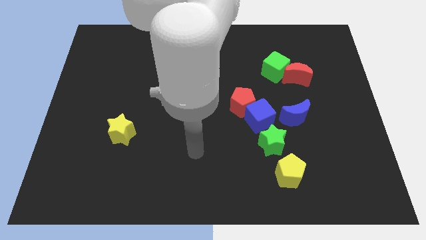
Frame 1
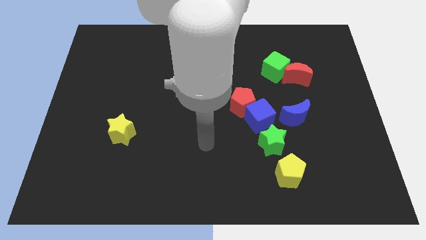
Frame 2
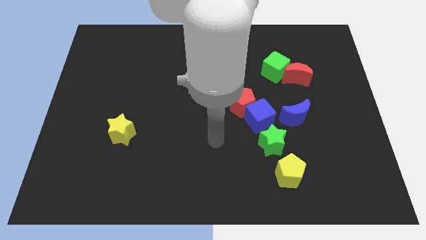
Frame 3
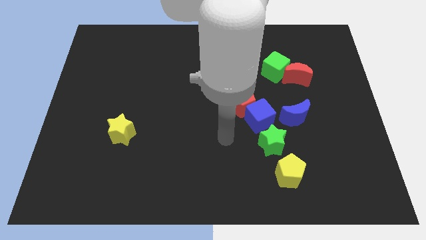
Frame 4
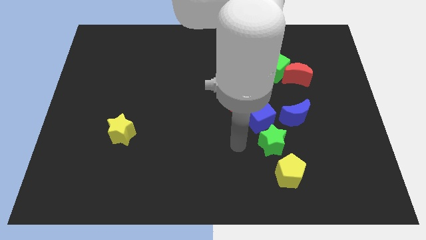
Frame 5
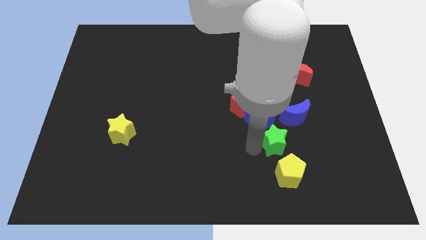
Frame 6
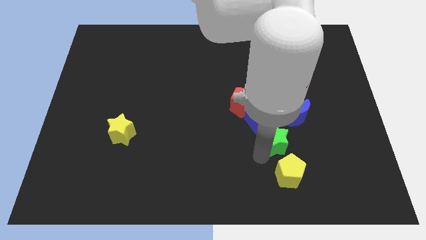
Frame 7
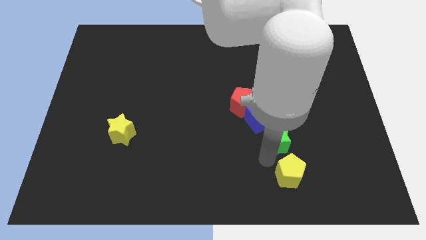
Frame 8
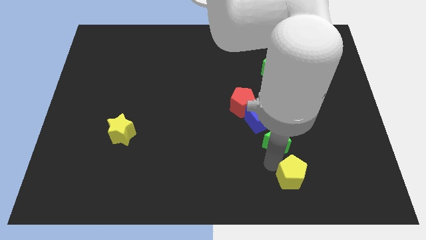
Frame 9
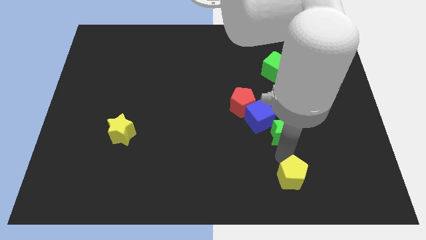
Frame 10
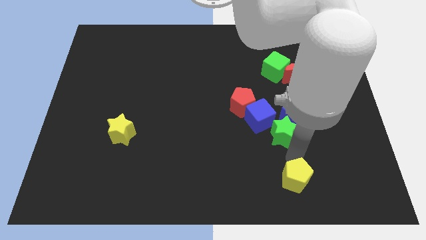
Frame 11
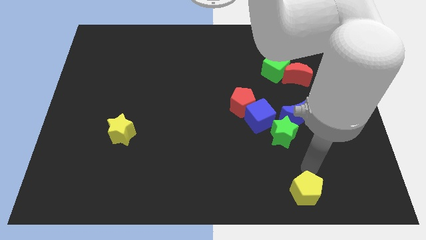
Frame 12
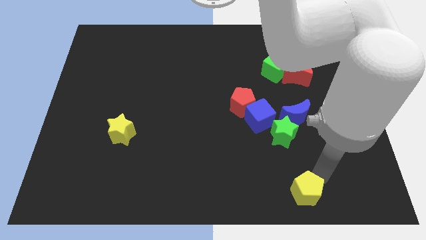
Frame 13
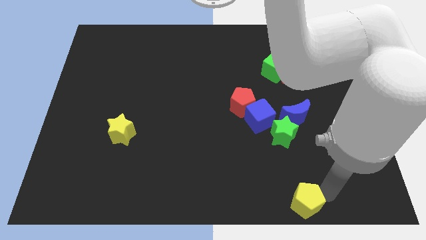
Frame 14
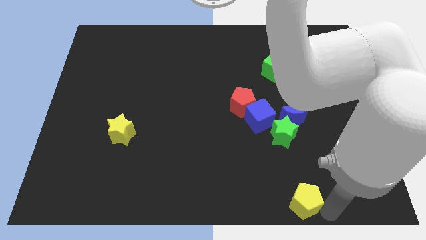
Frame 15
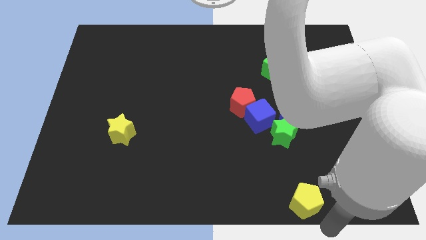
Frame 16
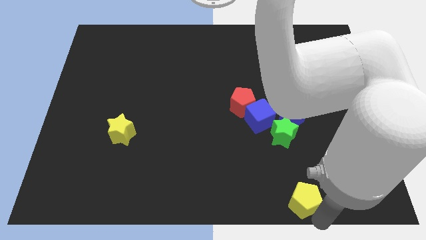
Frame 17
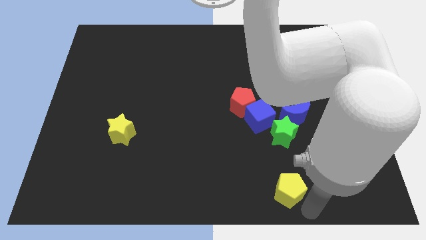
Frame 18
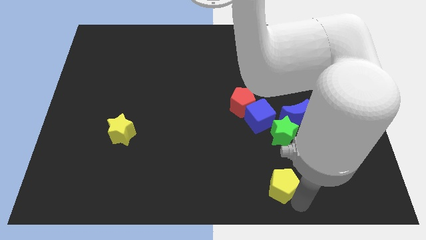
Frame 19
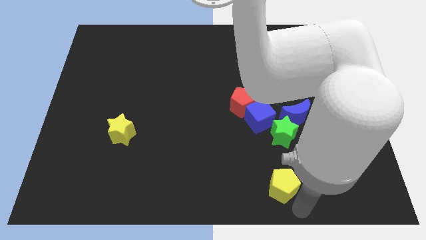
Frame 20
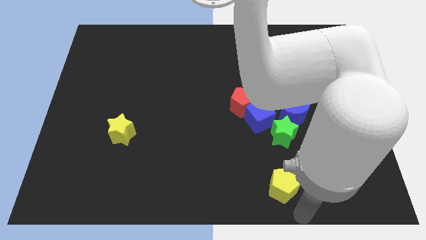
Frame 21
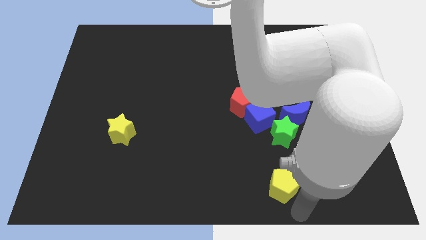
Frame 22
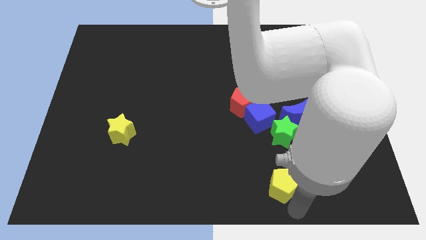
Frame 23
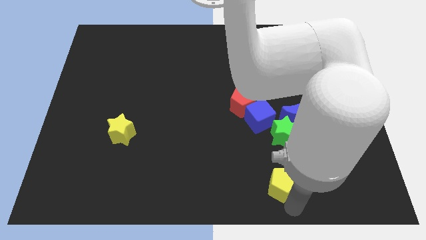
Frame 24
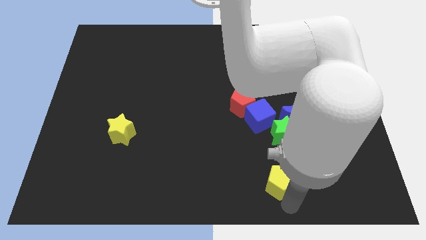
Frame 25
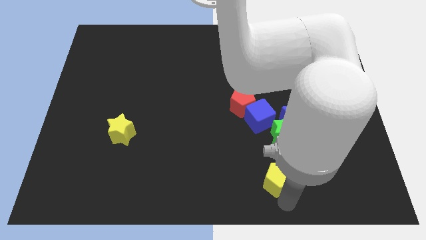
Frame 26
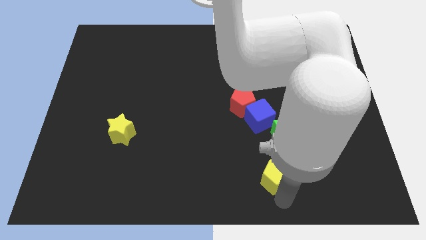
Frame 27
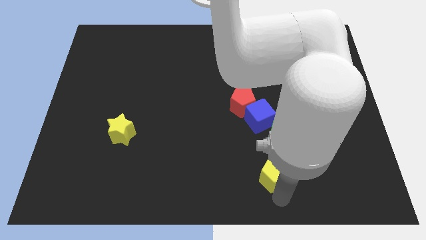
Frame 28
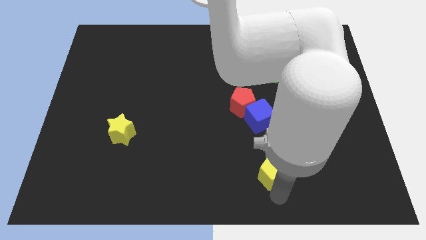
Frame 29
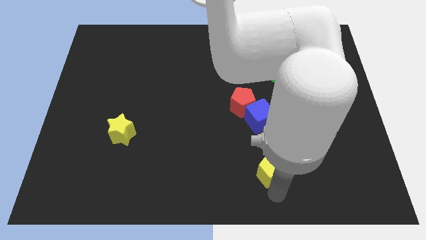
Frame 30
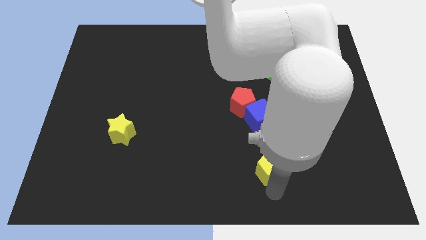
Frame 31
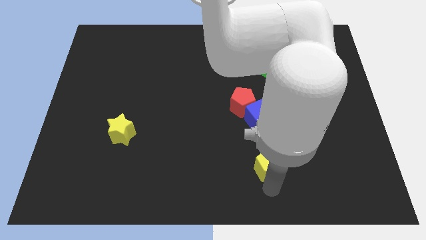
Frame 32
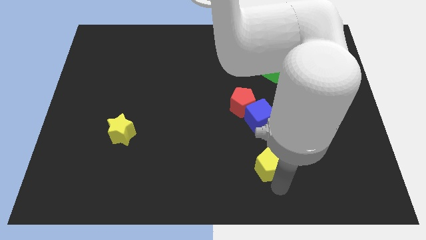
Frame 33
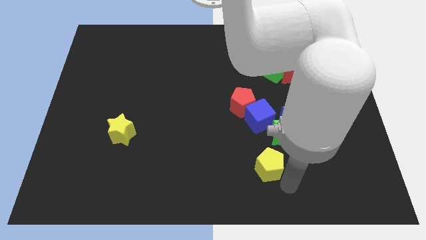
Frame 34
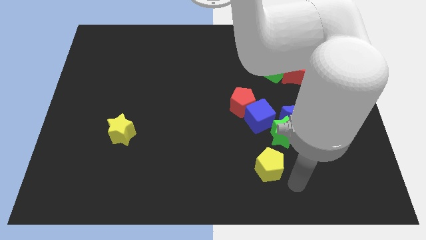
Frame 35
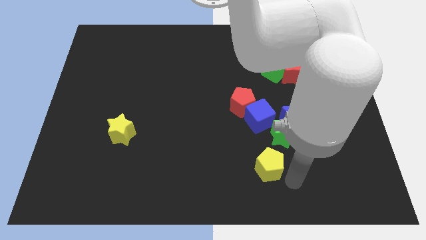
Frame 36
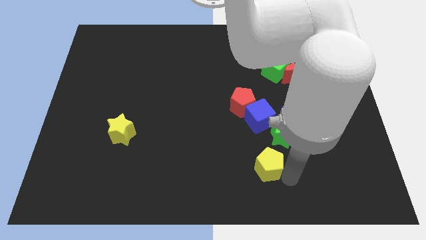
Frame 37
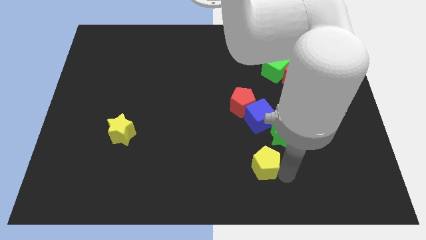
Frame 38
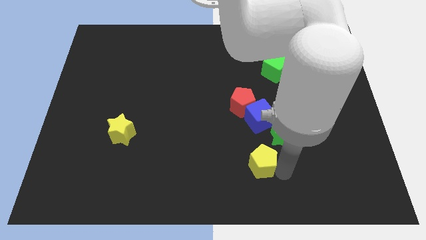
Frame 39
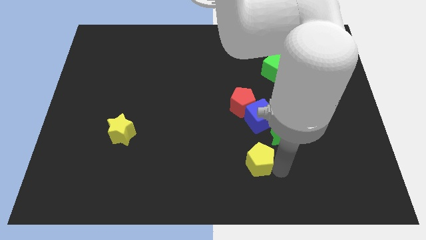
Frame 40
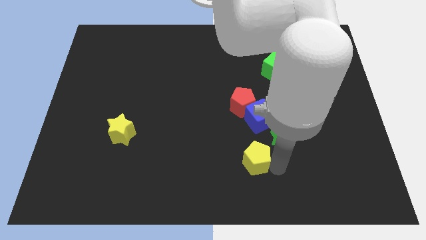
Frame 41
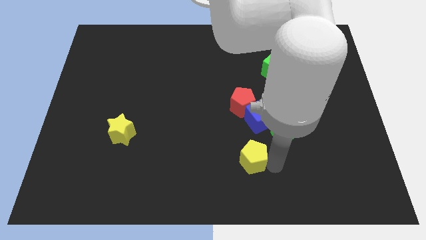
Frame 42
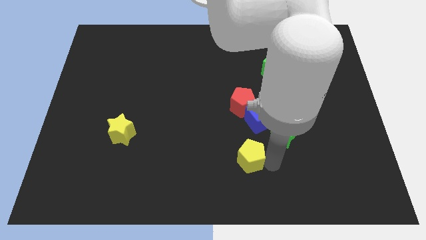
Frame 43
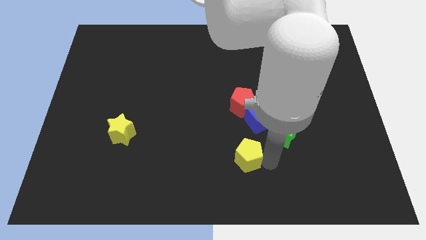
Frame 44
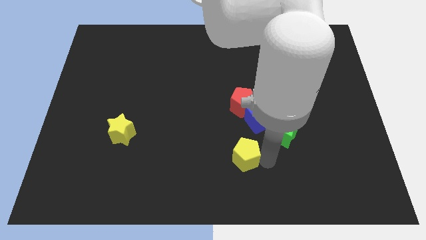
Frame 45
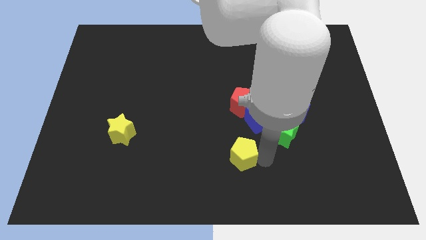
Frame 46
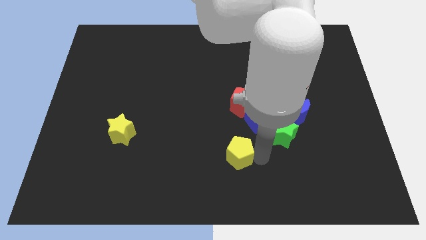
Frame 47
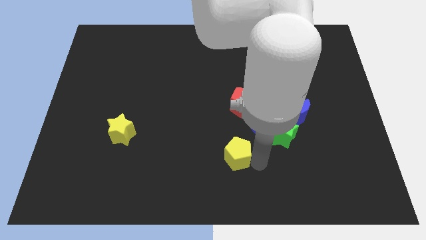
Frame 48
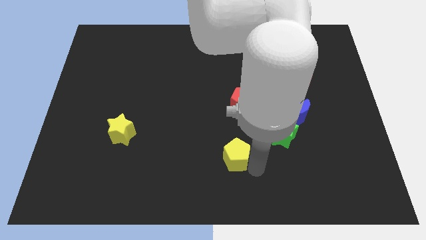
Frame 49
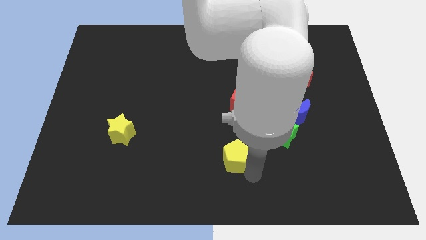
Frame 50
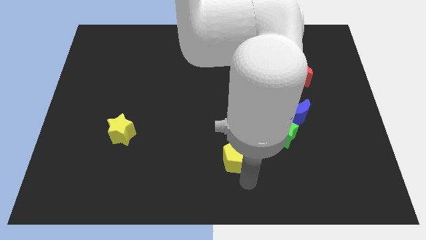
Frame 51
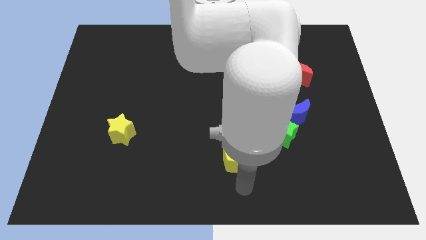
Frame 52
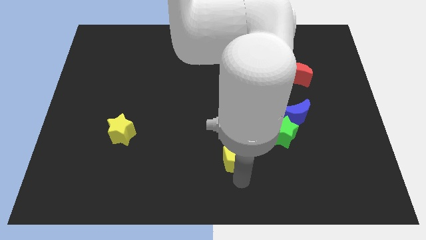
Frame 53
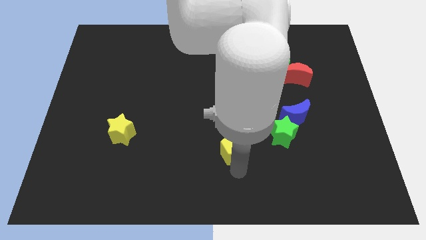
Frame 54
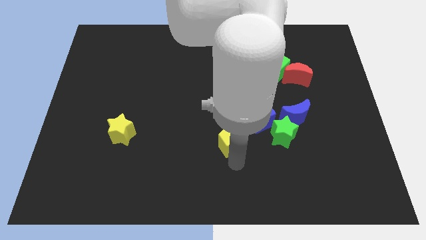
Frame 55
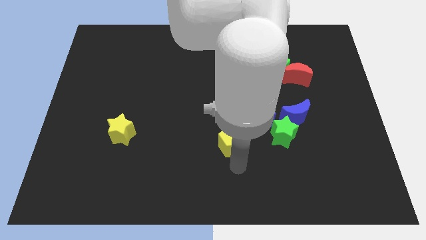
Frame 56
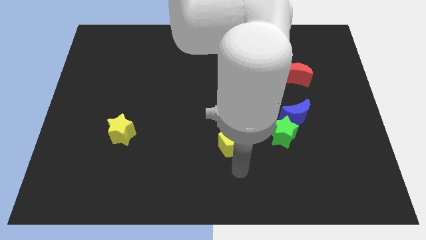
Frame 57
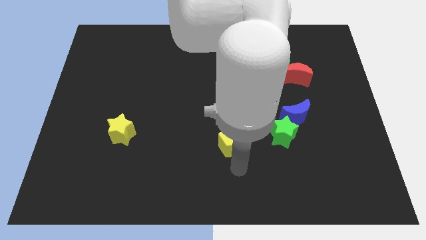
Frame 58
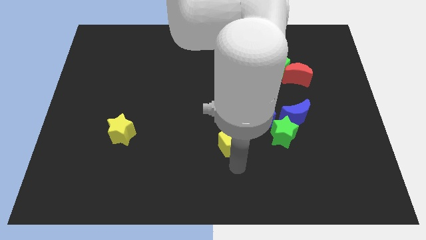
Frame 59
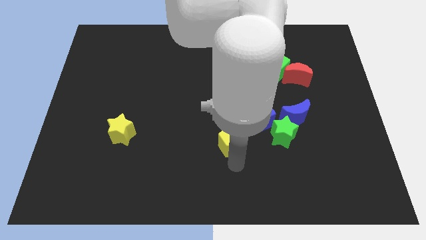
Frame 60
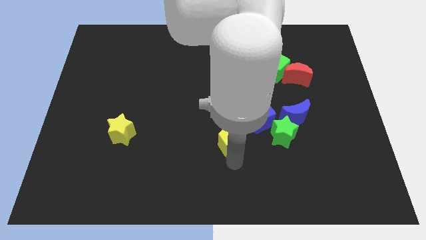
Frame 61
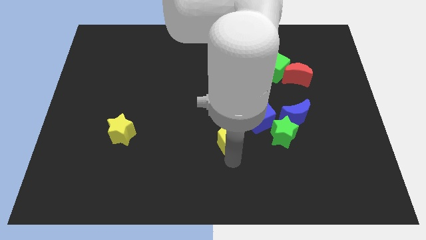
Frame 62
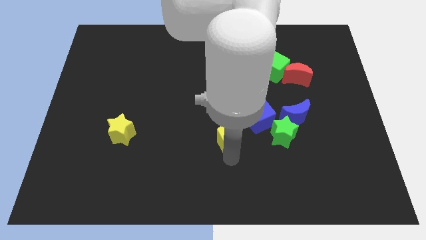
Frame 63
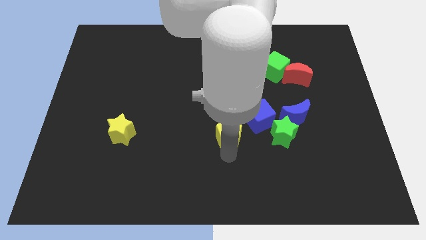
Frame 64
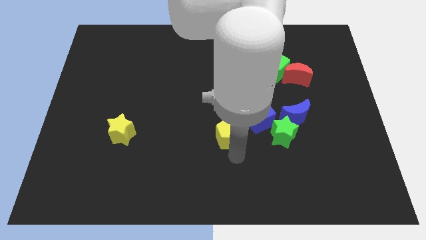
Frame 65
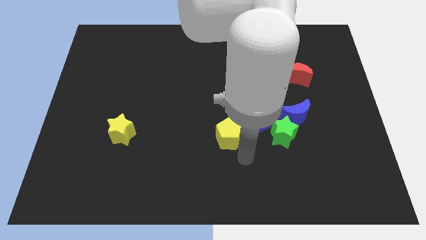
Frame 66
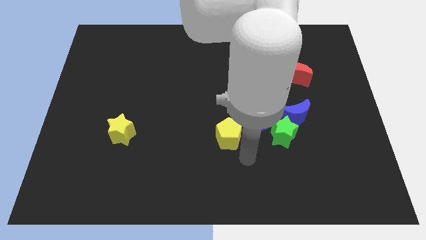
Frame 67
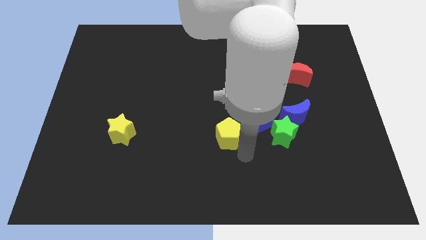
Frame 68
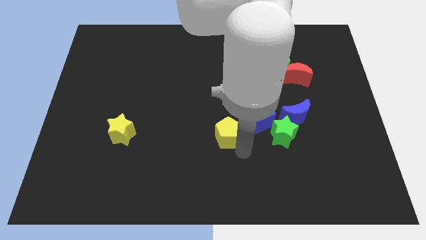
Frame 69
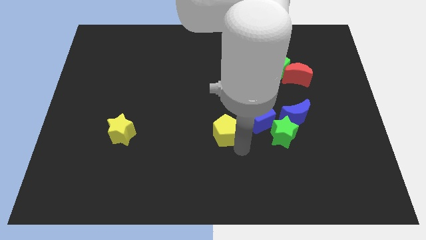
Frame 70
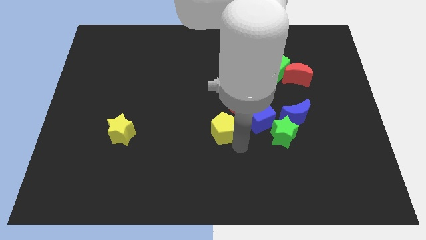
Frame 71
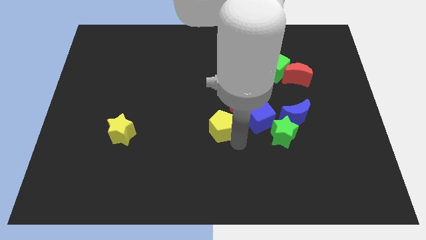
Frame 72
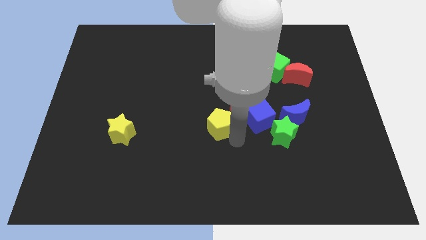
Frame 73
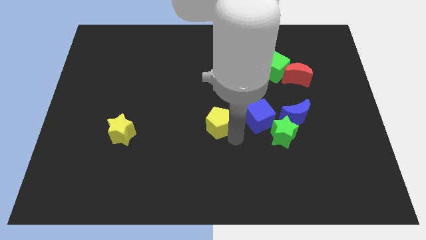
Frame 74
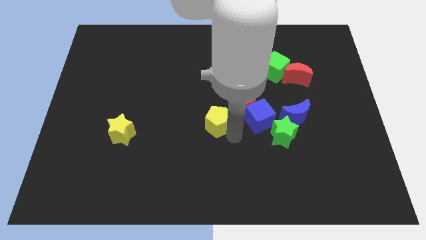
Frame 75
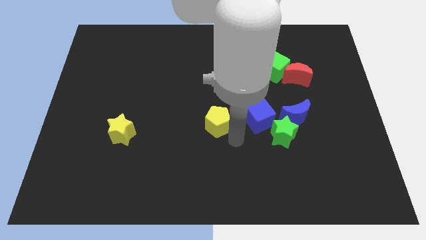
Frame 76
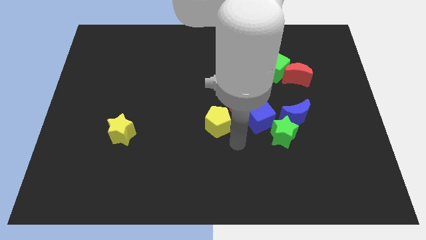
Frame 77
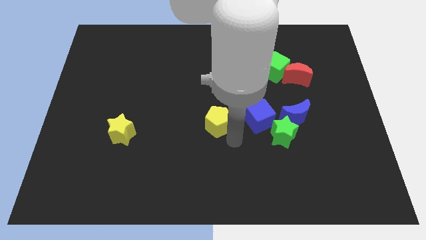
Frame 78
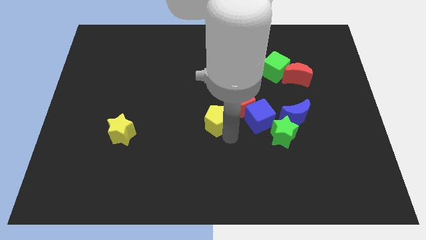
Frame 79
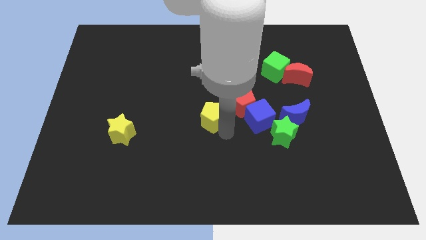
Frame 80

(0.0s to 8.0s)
move the yellow pentagon up and to the left
